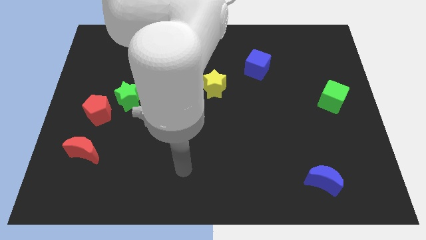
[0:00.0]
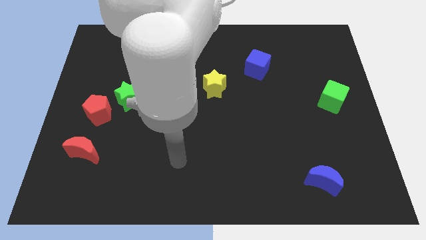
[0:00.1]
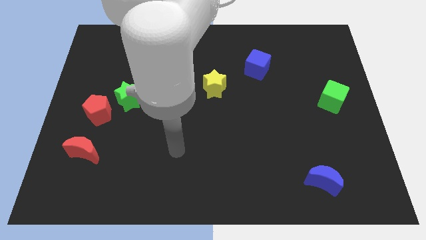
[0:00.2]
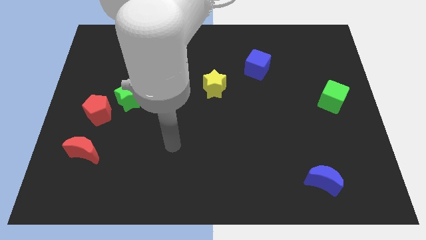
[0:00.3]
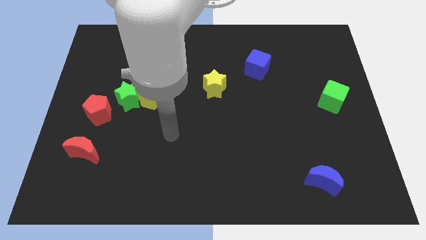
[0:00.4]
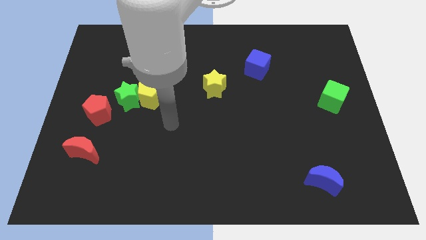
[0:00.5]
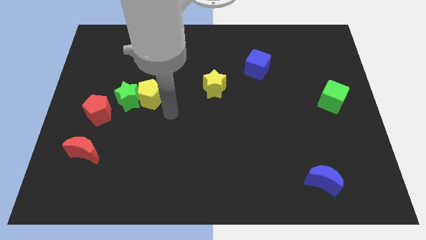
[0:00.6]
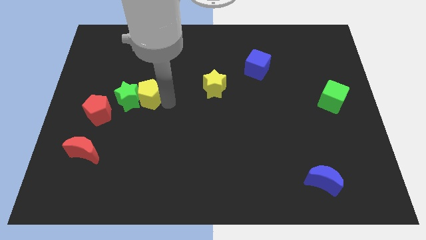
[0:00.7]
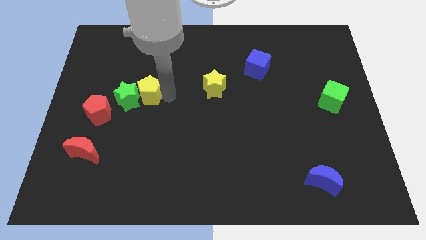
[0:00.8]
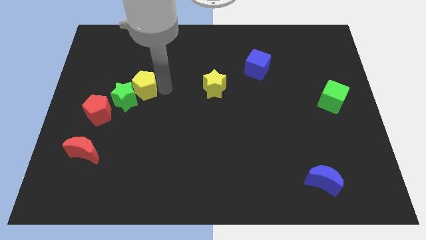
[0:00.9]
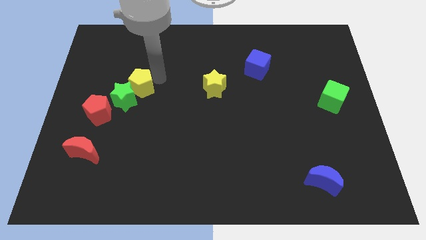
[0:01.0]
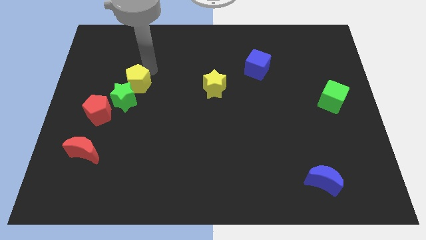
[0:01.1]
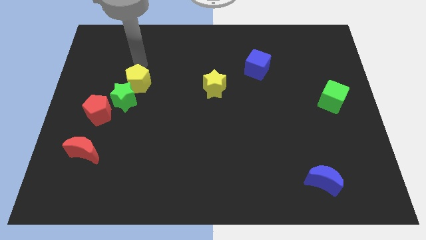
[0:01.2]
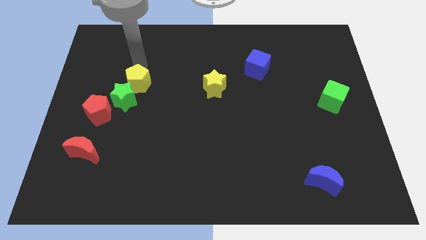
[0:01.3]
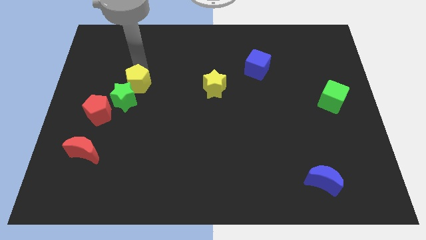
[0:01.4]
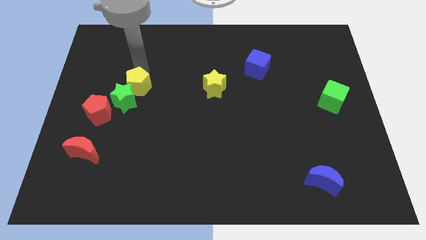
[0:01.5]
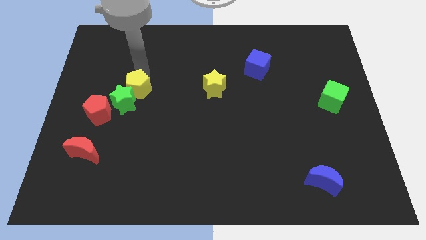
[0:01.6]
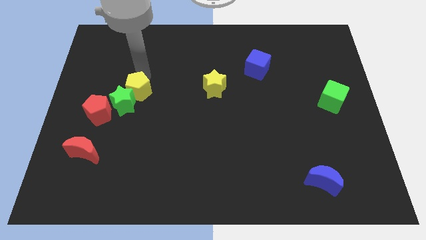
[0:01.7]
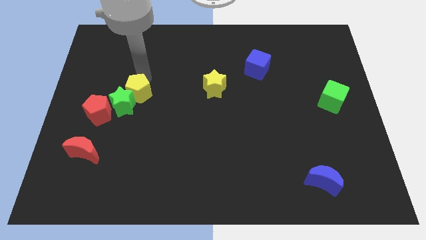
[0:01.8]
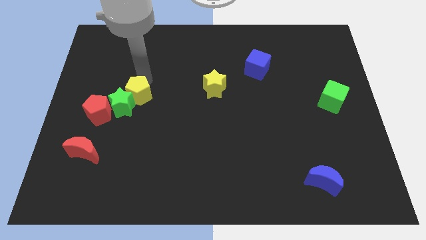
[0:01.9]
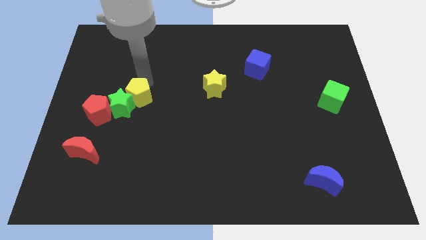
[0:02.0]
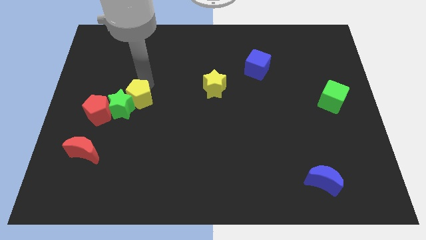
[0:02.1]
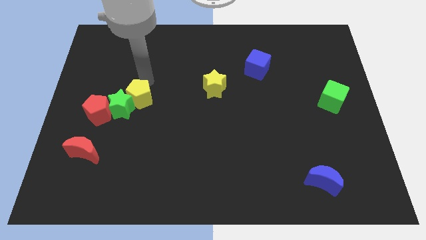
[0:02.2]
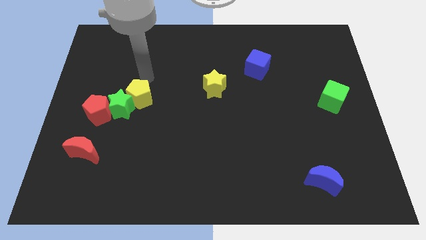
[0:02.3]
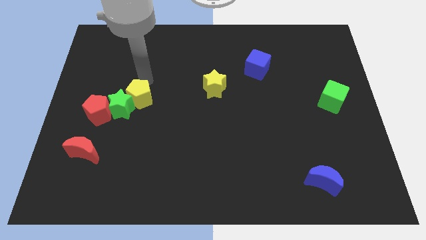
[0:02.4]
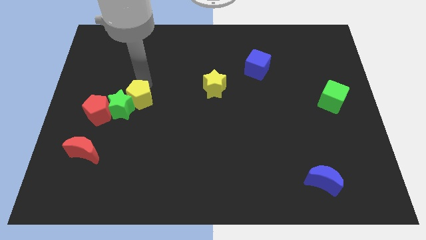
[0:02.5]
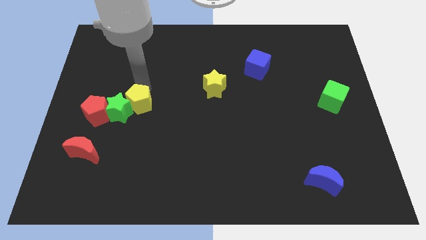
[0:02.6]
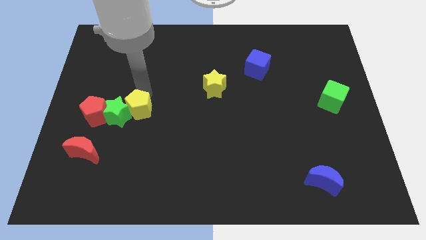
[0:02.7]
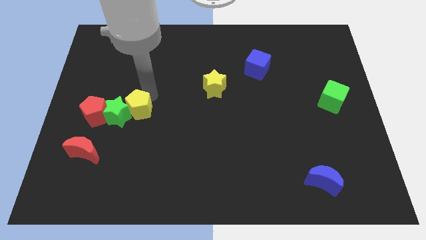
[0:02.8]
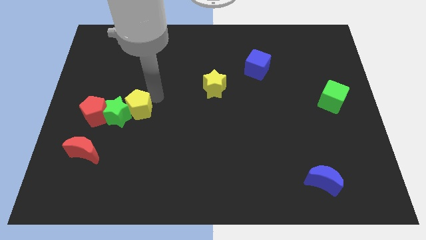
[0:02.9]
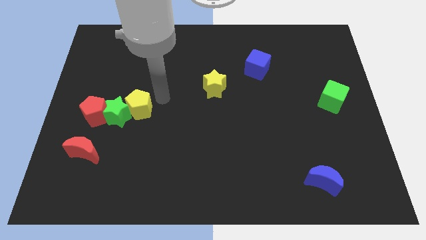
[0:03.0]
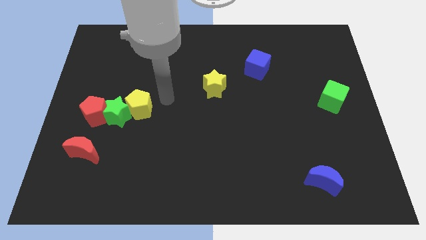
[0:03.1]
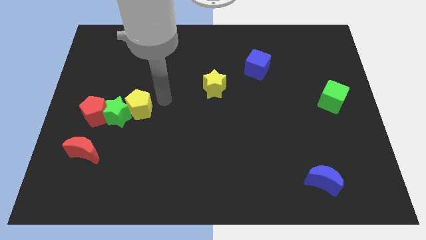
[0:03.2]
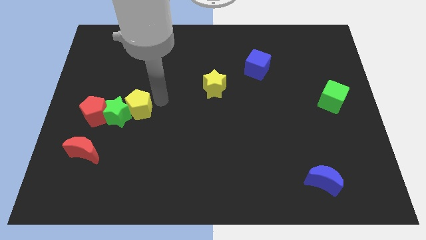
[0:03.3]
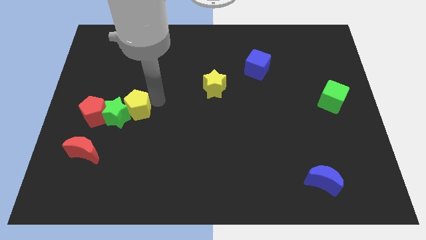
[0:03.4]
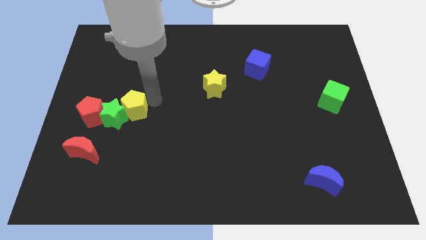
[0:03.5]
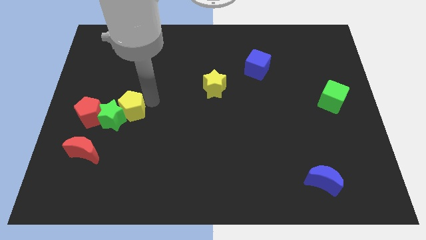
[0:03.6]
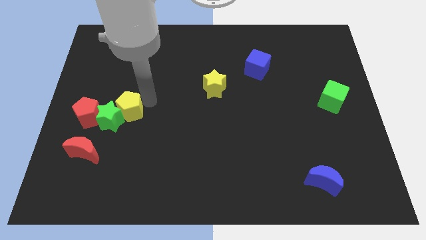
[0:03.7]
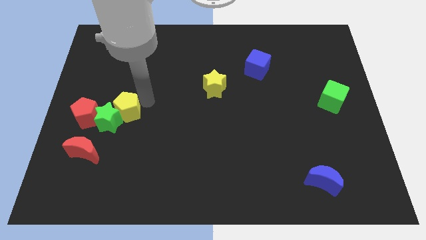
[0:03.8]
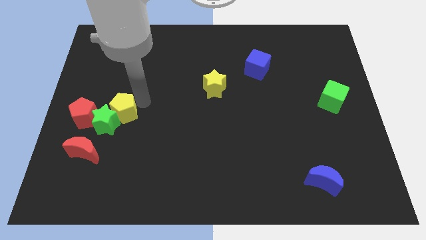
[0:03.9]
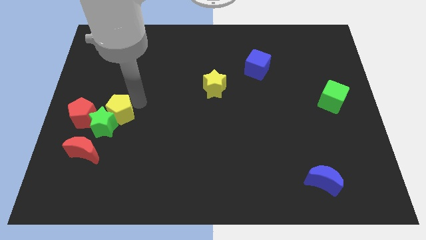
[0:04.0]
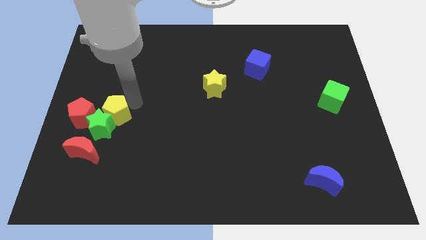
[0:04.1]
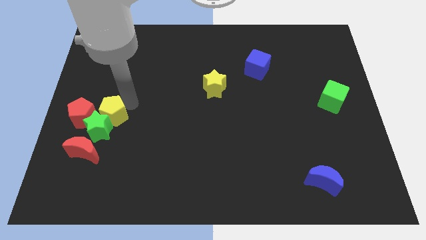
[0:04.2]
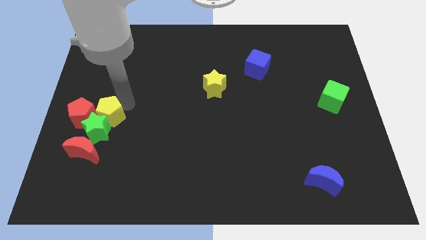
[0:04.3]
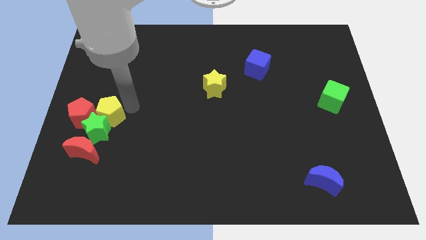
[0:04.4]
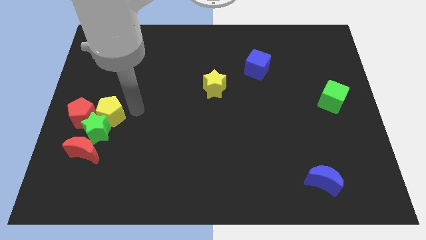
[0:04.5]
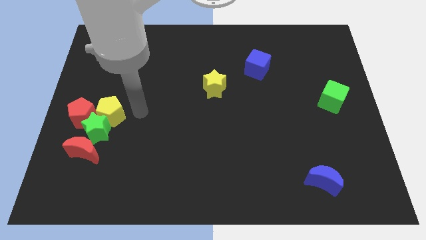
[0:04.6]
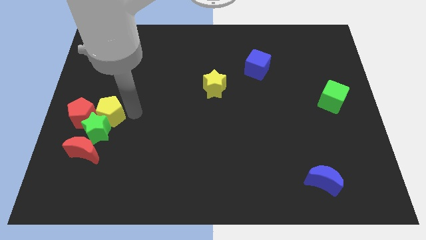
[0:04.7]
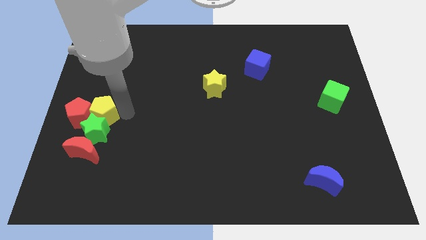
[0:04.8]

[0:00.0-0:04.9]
put the yellow pentagon to the red pentagon

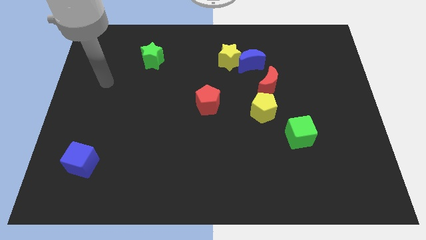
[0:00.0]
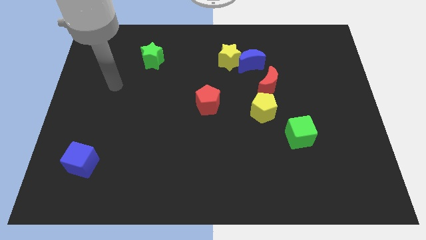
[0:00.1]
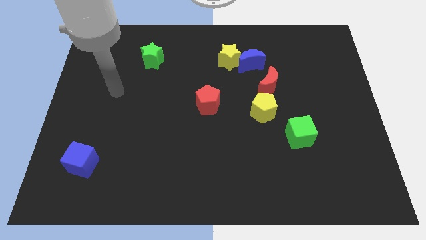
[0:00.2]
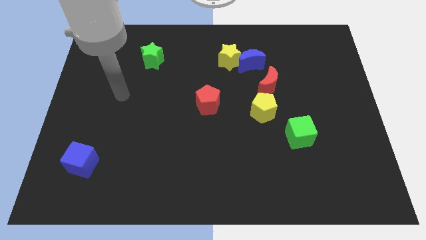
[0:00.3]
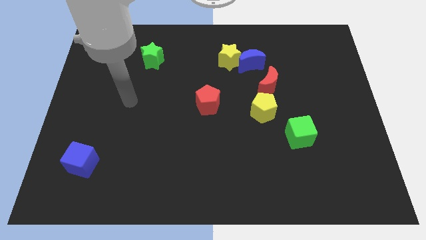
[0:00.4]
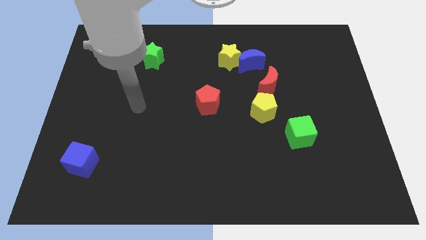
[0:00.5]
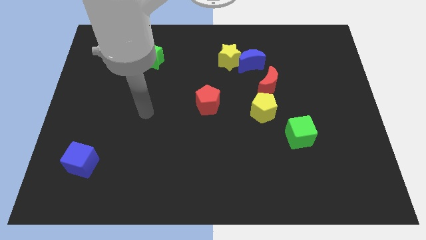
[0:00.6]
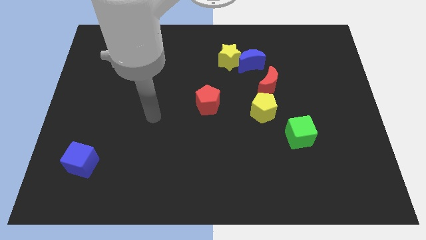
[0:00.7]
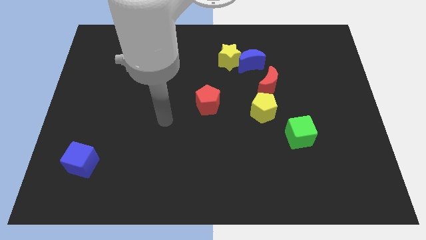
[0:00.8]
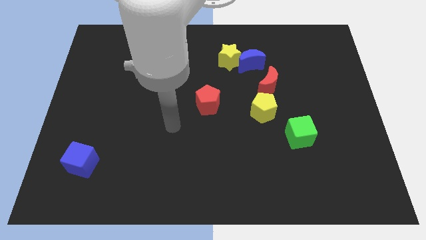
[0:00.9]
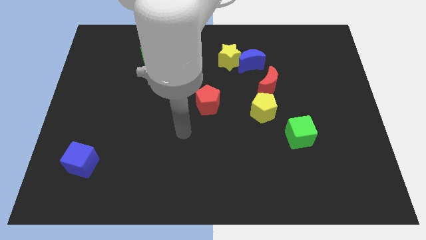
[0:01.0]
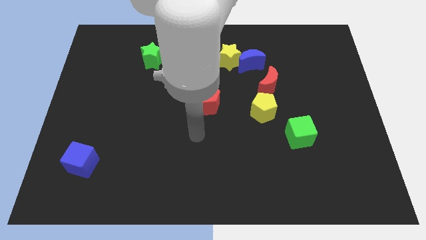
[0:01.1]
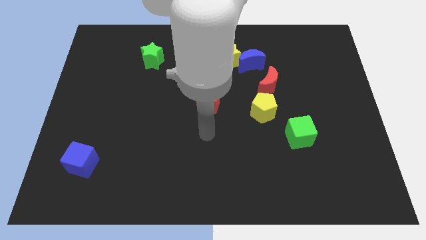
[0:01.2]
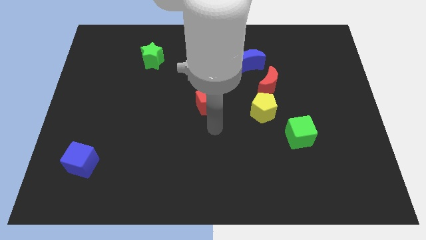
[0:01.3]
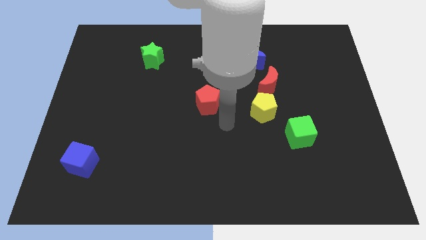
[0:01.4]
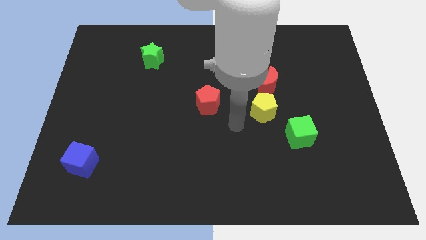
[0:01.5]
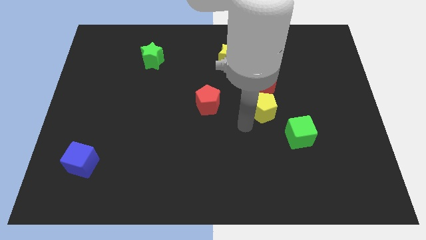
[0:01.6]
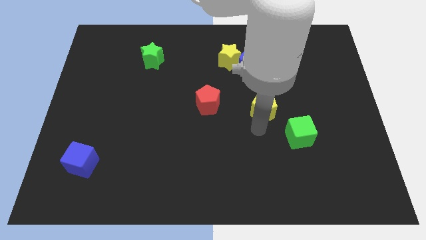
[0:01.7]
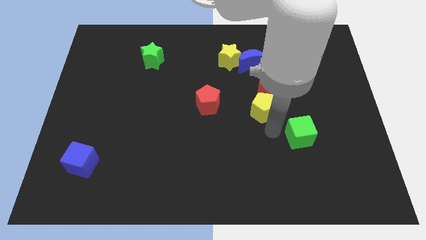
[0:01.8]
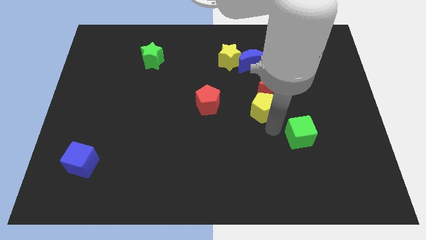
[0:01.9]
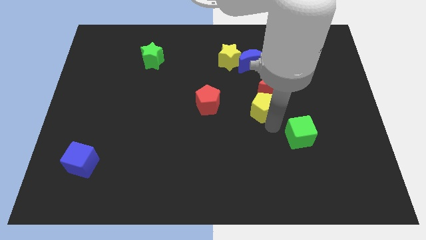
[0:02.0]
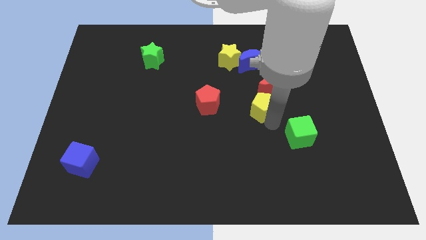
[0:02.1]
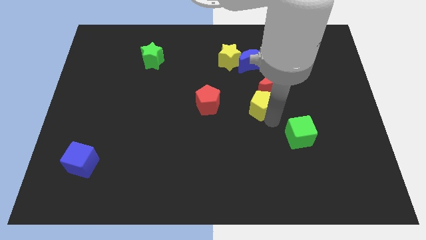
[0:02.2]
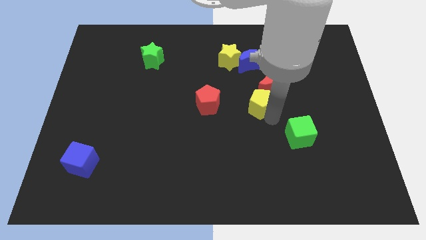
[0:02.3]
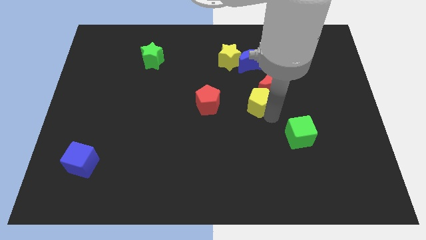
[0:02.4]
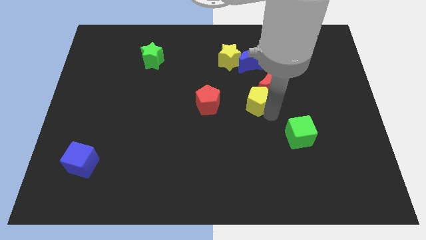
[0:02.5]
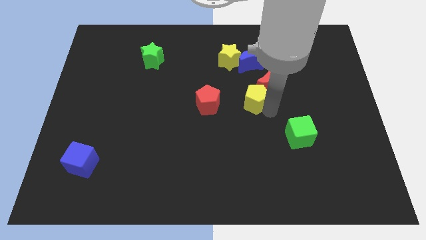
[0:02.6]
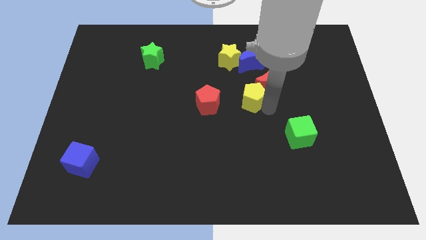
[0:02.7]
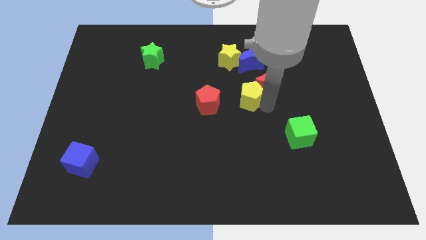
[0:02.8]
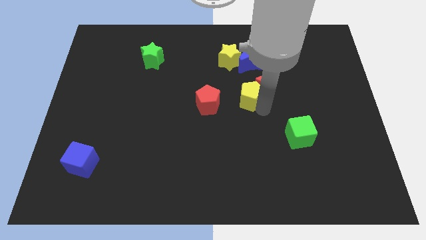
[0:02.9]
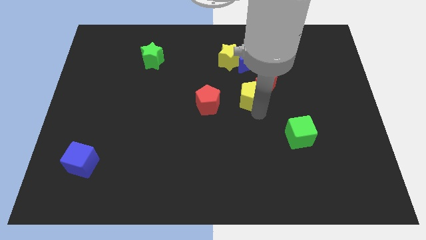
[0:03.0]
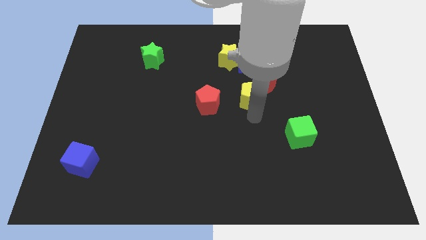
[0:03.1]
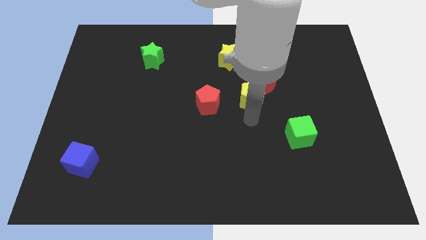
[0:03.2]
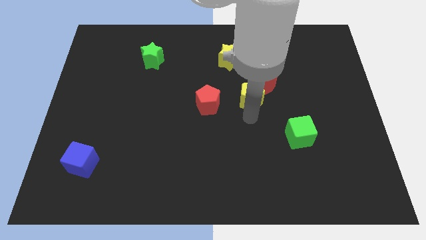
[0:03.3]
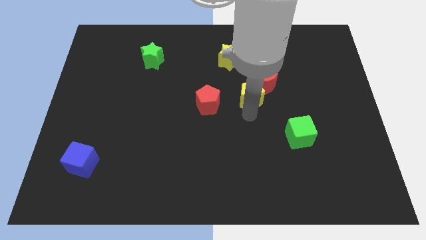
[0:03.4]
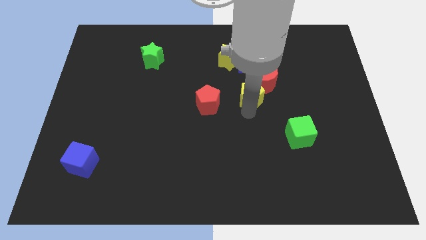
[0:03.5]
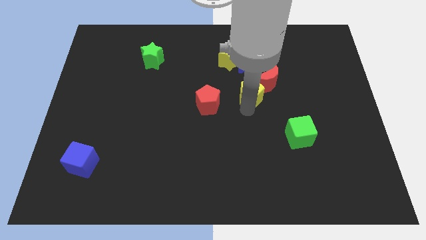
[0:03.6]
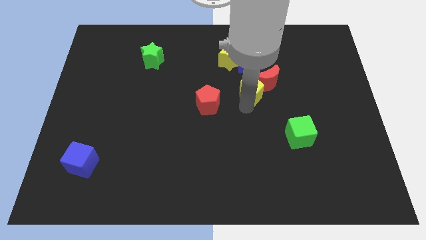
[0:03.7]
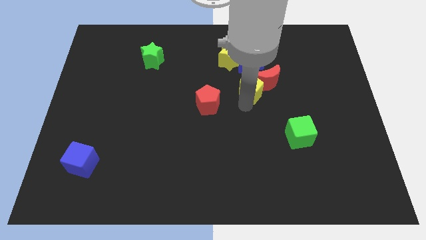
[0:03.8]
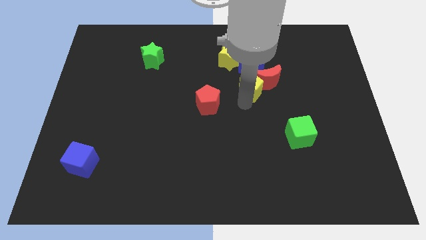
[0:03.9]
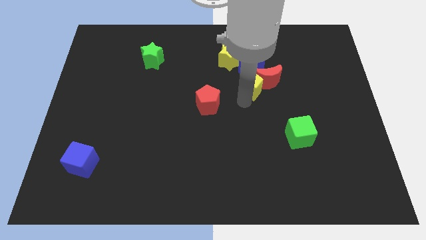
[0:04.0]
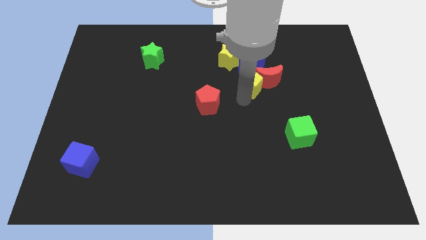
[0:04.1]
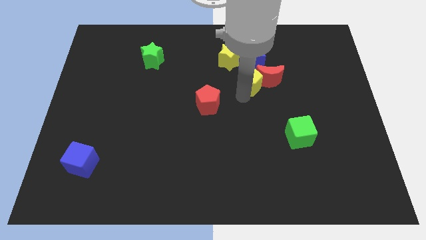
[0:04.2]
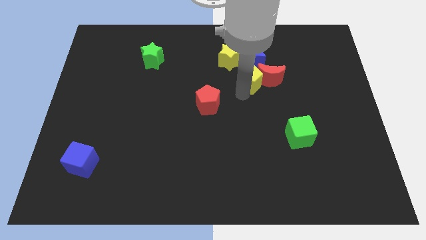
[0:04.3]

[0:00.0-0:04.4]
slide the yellow pentagon close to the blue moon
